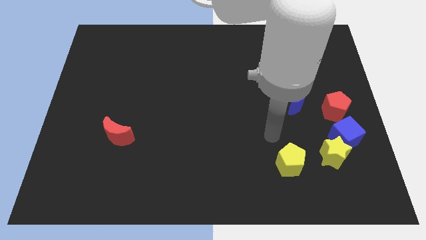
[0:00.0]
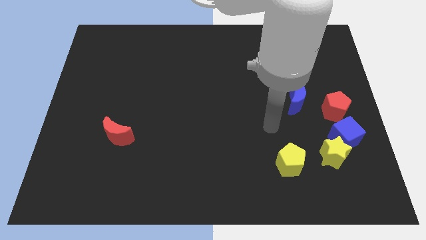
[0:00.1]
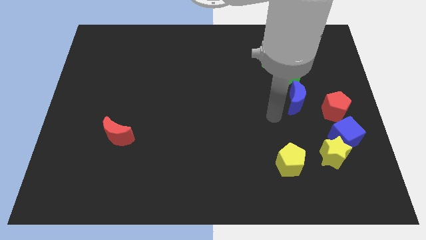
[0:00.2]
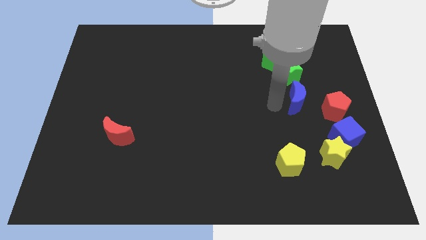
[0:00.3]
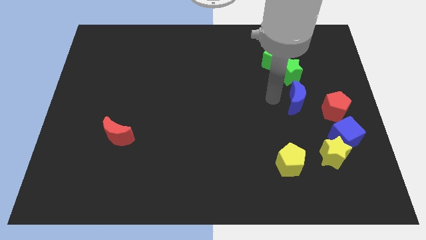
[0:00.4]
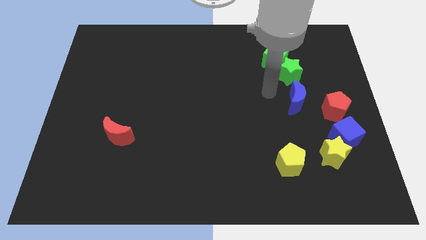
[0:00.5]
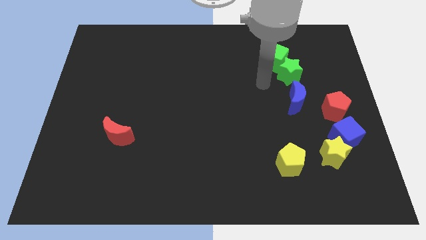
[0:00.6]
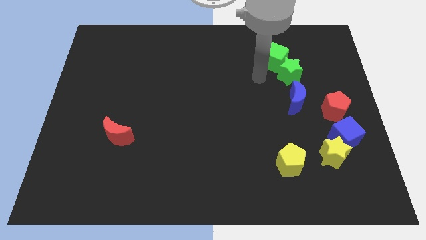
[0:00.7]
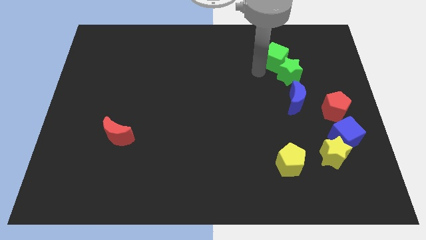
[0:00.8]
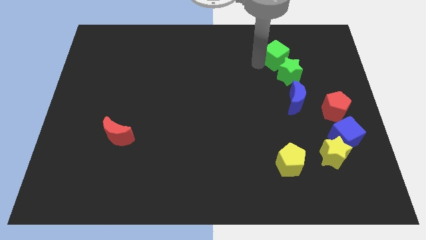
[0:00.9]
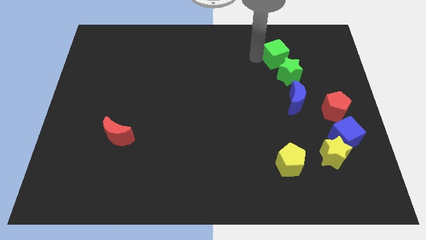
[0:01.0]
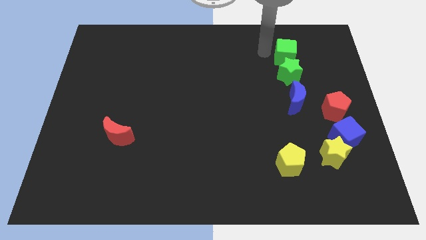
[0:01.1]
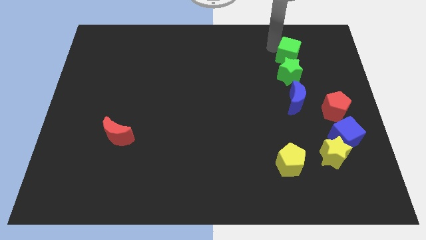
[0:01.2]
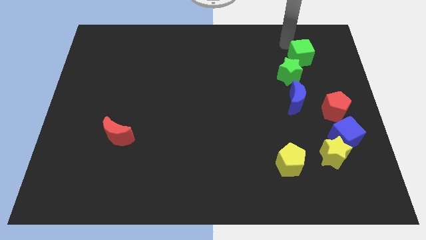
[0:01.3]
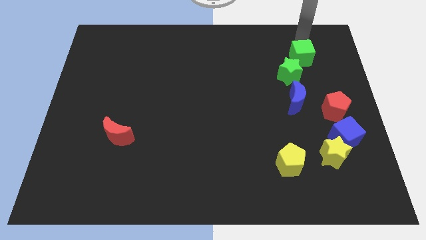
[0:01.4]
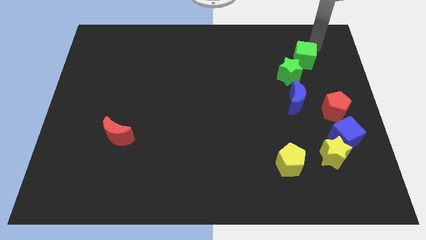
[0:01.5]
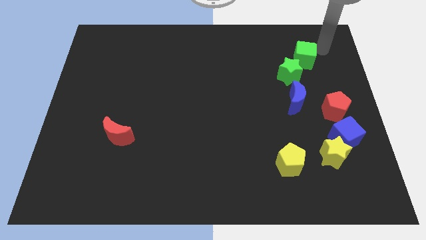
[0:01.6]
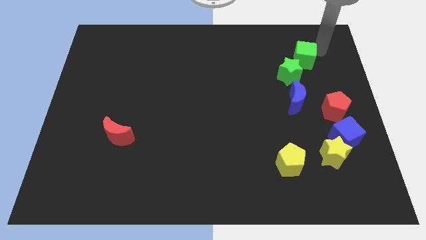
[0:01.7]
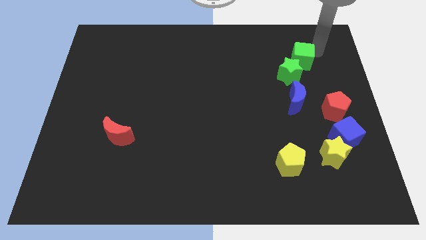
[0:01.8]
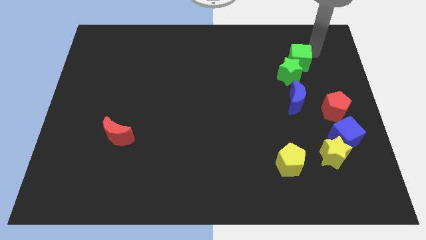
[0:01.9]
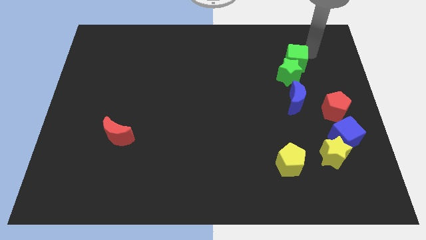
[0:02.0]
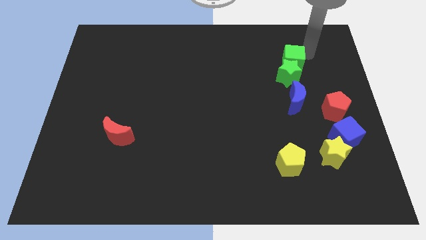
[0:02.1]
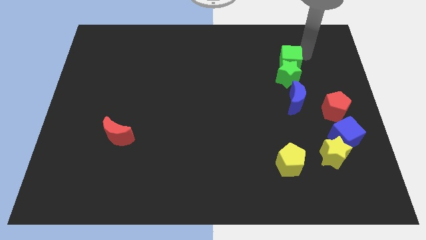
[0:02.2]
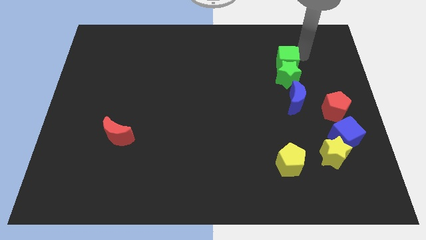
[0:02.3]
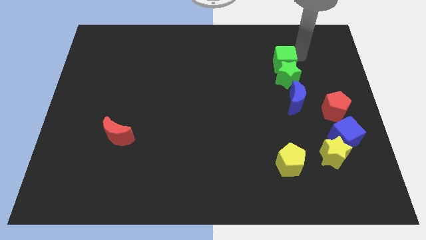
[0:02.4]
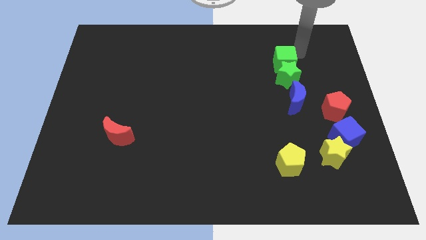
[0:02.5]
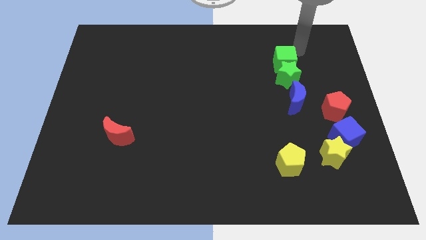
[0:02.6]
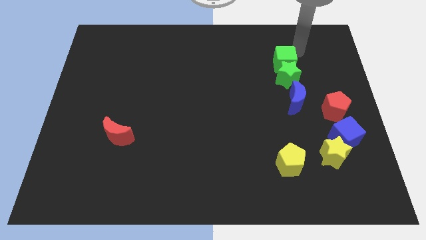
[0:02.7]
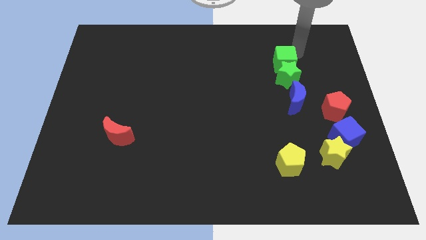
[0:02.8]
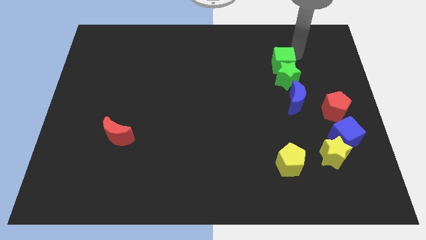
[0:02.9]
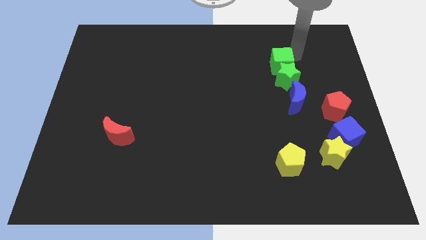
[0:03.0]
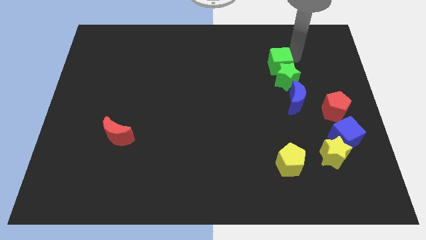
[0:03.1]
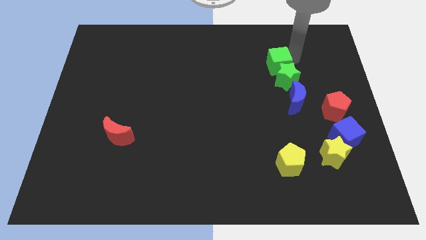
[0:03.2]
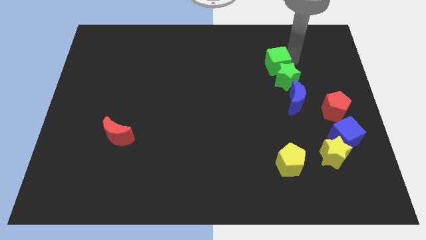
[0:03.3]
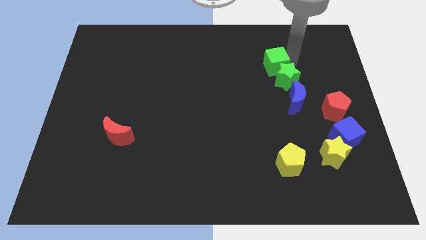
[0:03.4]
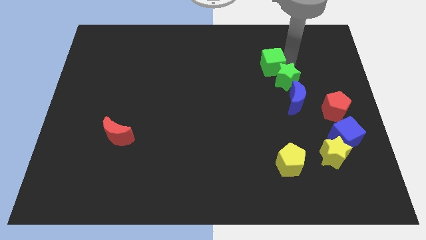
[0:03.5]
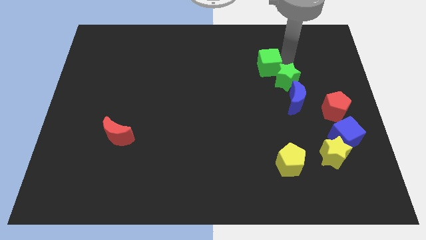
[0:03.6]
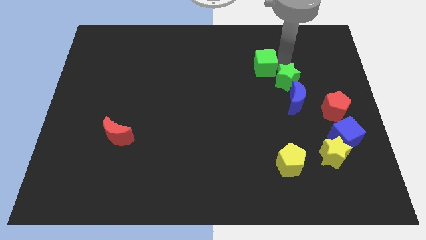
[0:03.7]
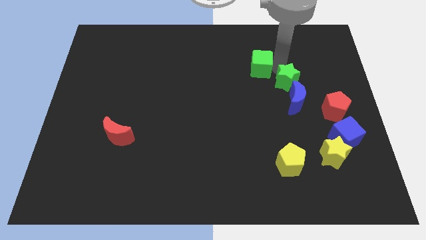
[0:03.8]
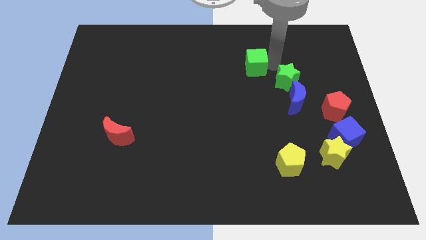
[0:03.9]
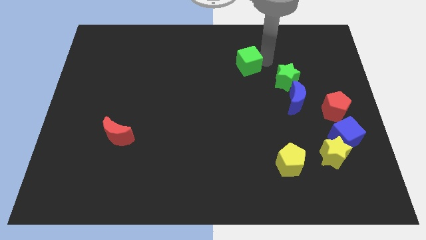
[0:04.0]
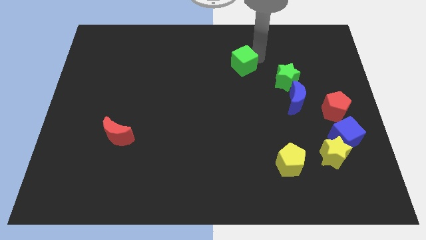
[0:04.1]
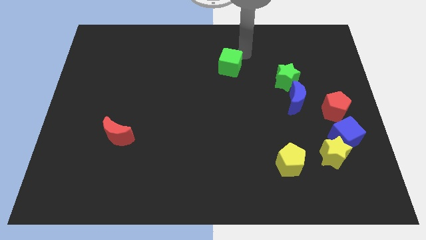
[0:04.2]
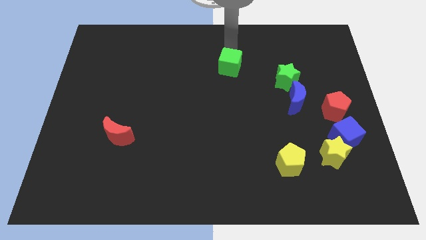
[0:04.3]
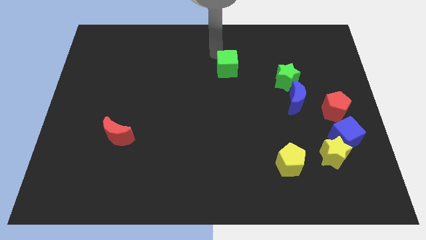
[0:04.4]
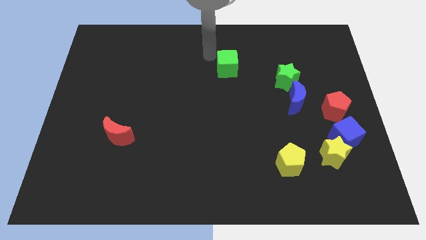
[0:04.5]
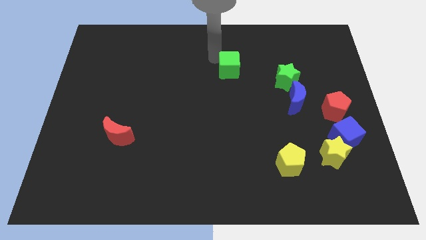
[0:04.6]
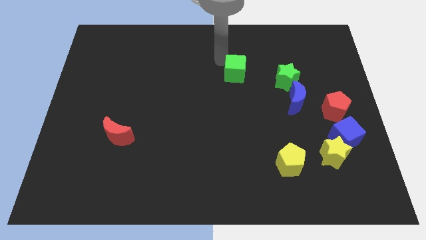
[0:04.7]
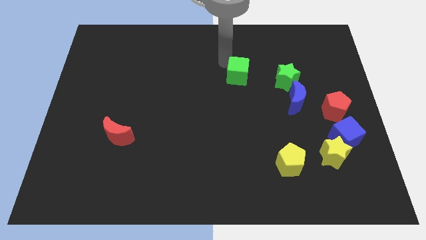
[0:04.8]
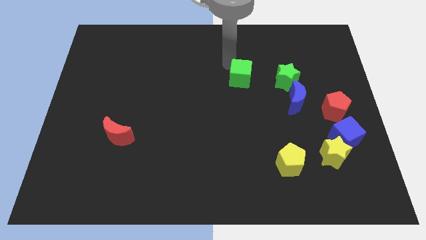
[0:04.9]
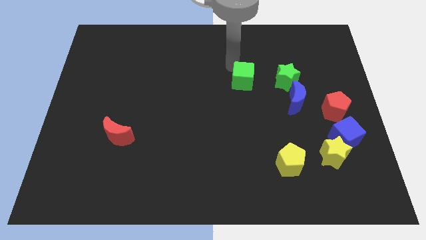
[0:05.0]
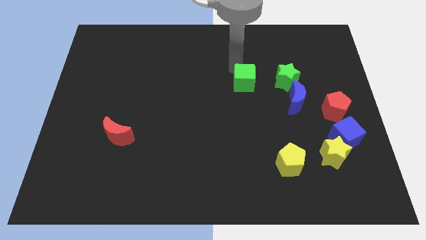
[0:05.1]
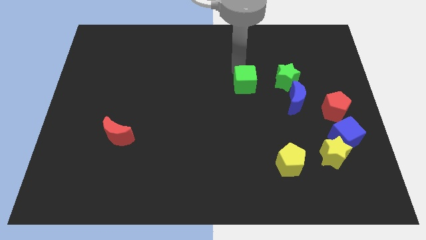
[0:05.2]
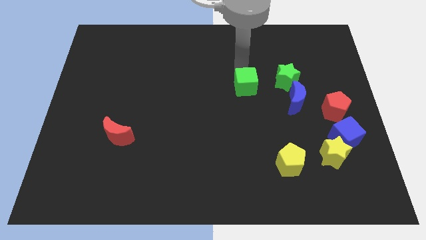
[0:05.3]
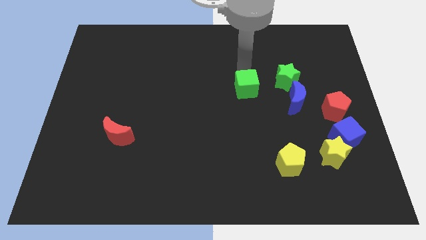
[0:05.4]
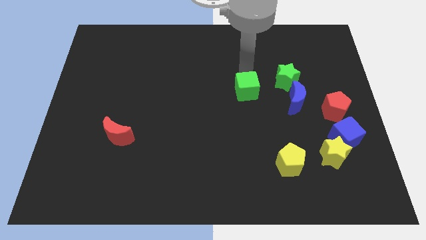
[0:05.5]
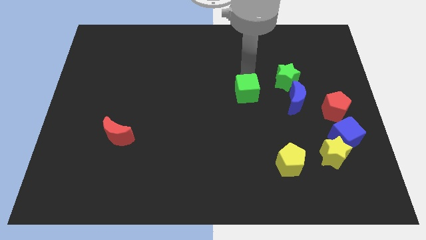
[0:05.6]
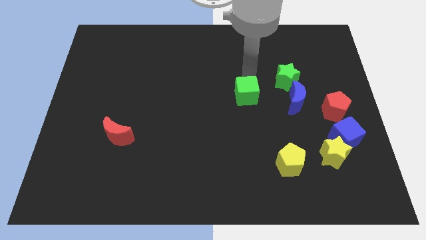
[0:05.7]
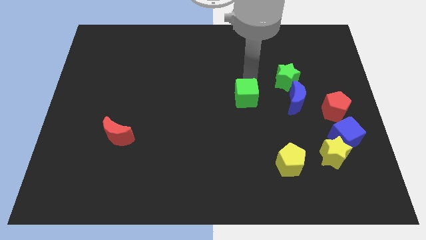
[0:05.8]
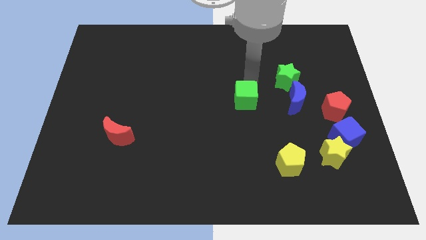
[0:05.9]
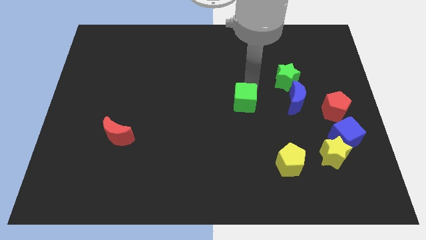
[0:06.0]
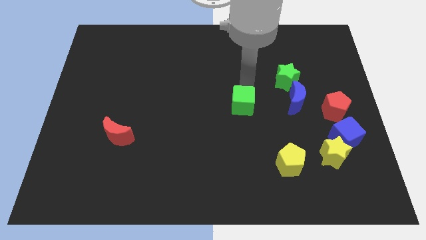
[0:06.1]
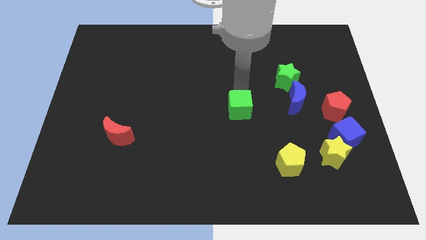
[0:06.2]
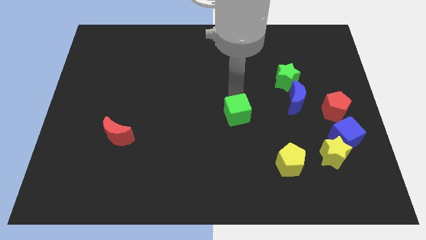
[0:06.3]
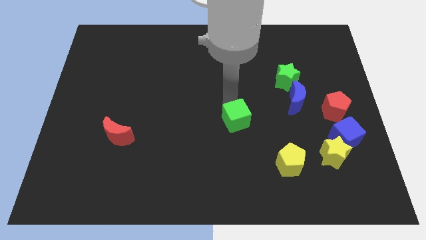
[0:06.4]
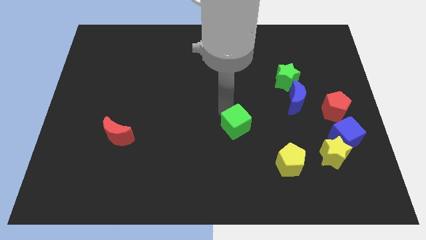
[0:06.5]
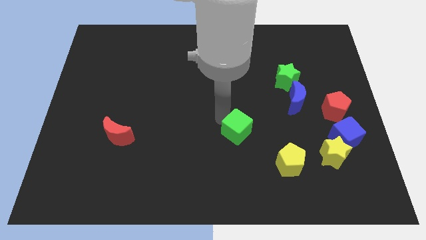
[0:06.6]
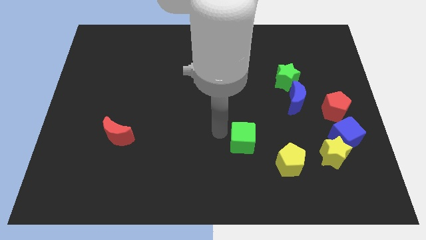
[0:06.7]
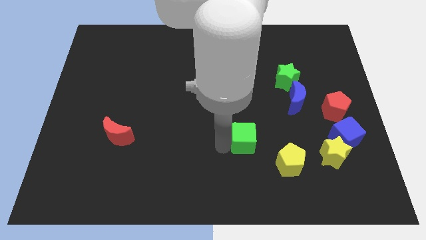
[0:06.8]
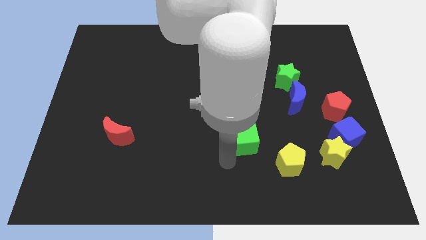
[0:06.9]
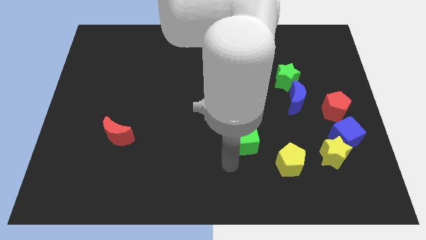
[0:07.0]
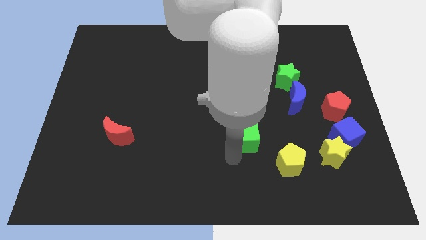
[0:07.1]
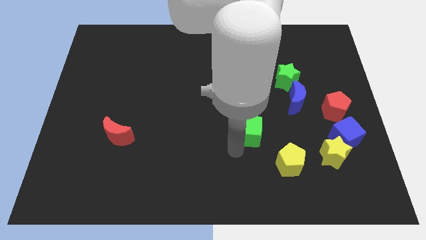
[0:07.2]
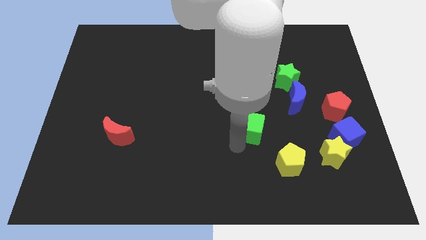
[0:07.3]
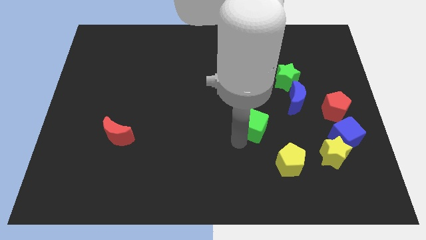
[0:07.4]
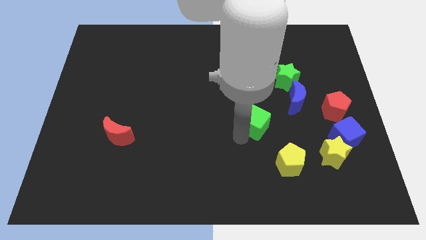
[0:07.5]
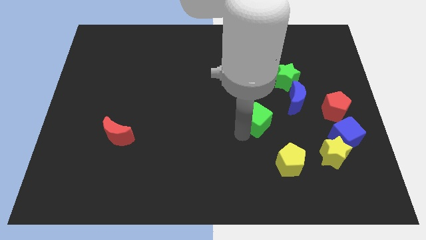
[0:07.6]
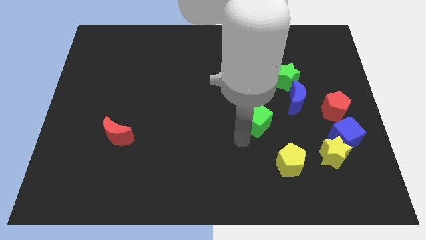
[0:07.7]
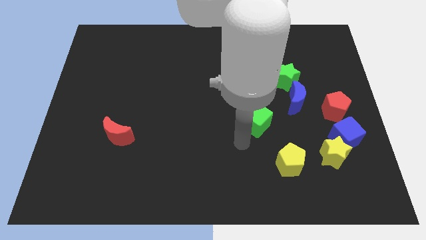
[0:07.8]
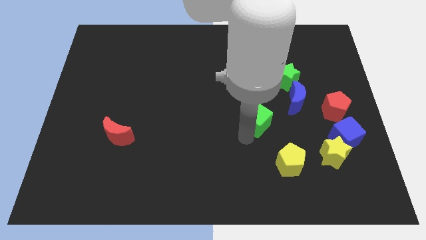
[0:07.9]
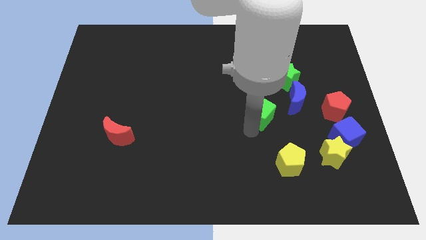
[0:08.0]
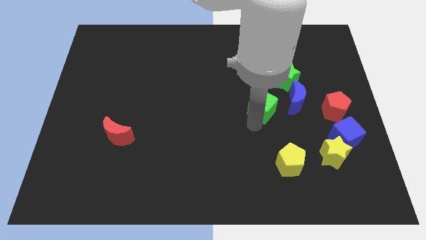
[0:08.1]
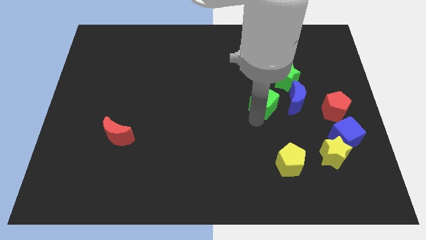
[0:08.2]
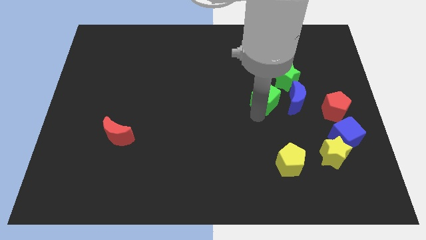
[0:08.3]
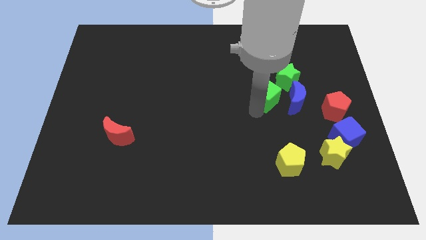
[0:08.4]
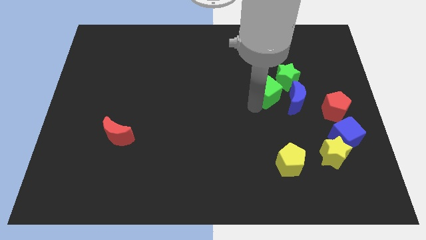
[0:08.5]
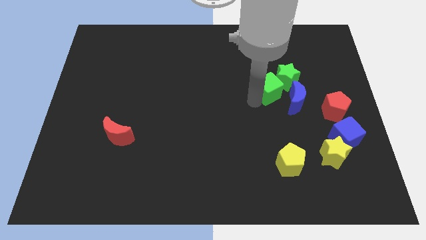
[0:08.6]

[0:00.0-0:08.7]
put the green cube below the green star
